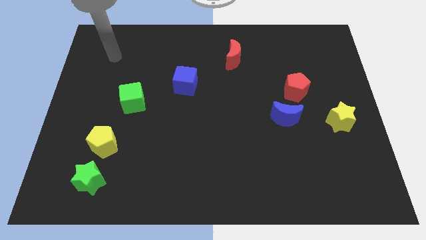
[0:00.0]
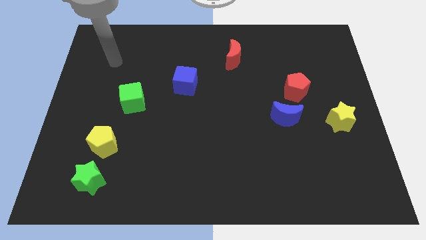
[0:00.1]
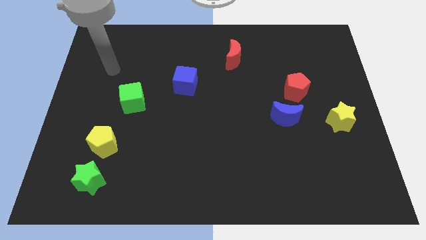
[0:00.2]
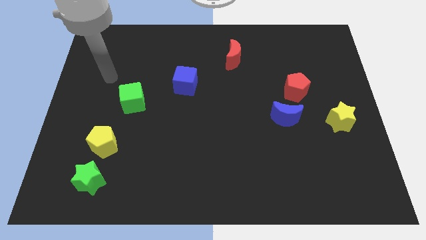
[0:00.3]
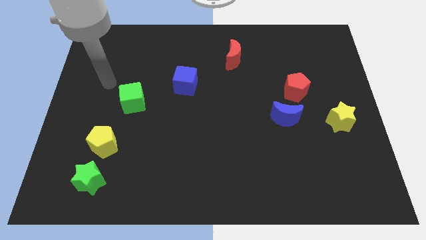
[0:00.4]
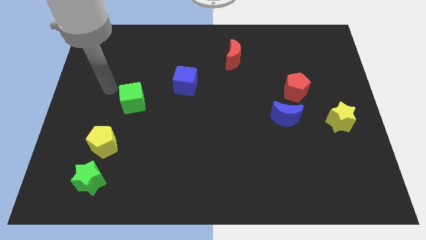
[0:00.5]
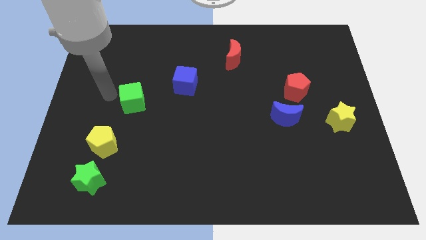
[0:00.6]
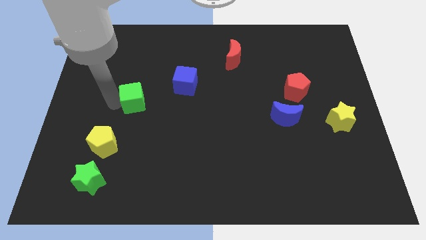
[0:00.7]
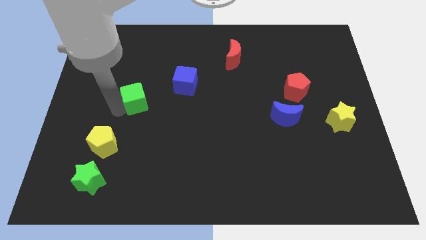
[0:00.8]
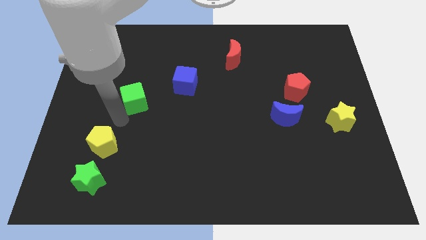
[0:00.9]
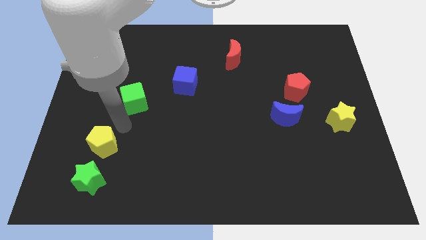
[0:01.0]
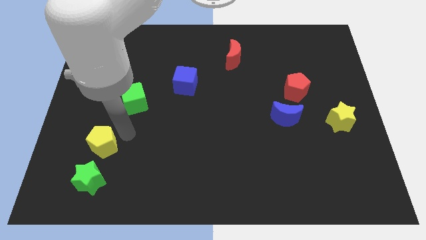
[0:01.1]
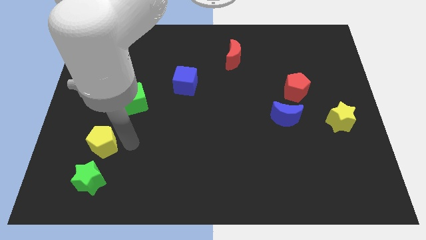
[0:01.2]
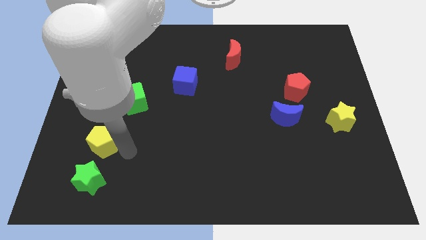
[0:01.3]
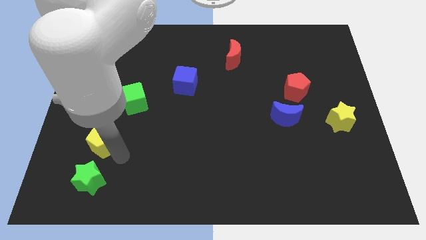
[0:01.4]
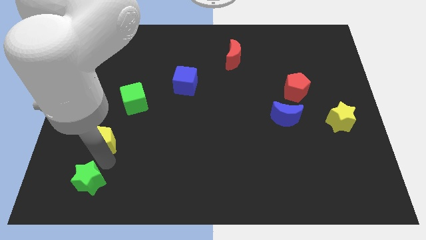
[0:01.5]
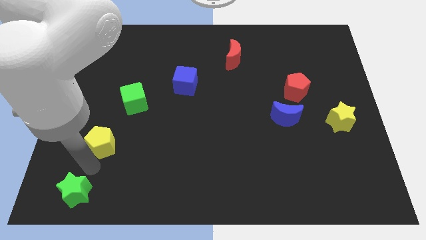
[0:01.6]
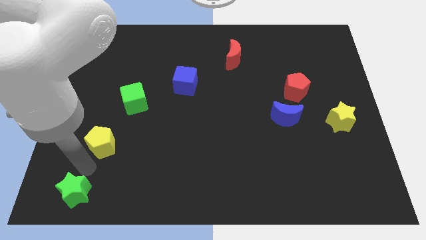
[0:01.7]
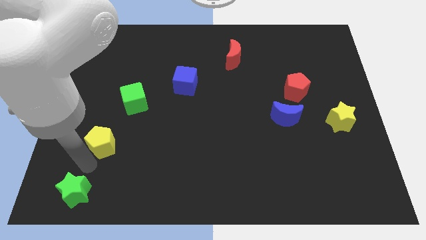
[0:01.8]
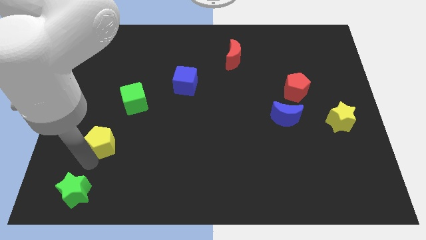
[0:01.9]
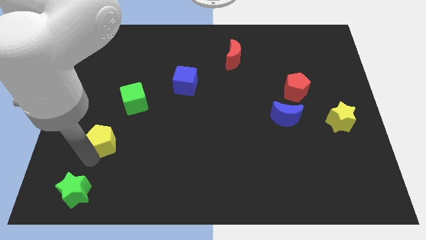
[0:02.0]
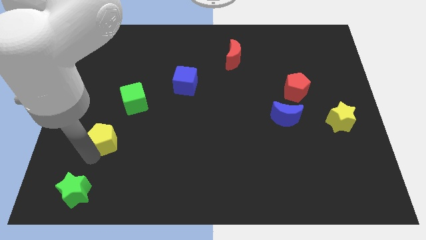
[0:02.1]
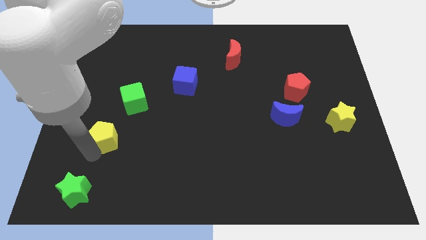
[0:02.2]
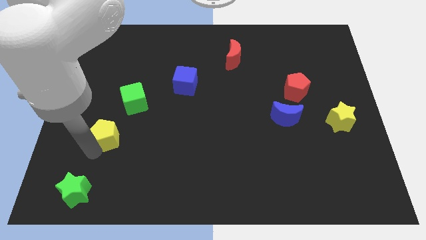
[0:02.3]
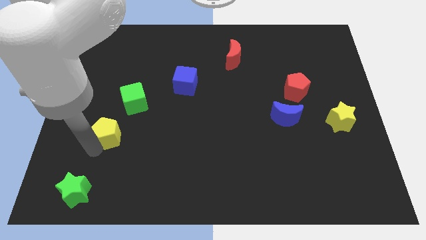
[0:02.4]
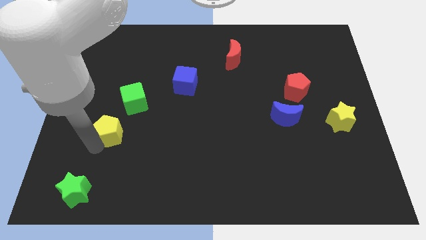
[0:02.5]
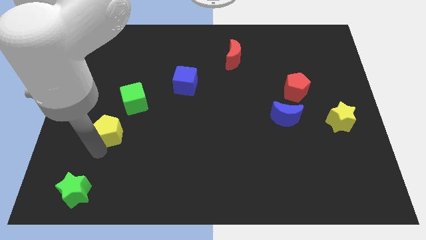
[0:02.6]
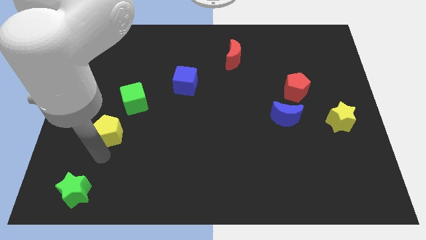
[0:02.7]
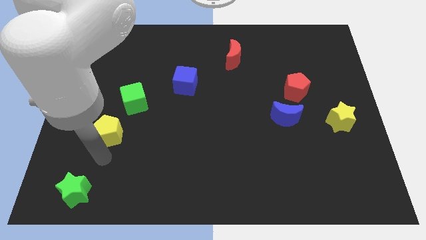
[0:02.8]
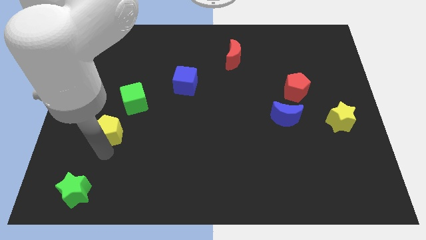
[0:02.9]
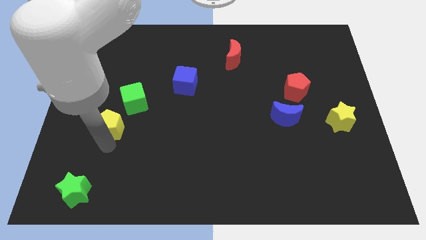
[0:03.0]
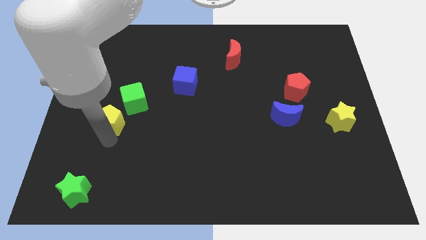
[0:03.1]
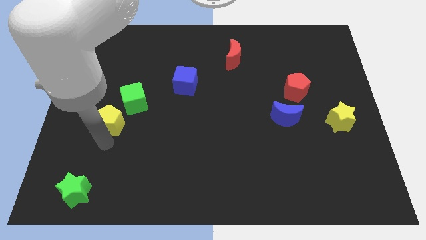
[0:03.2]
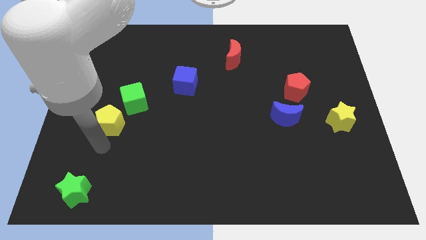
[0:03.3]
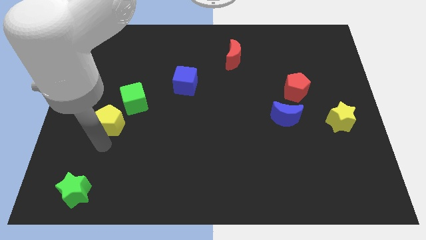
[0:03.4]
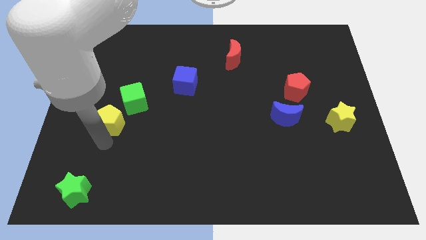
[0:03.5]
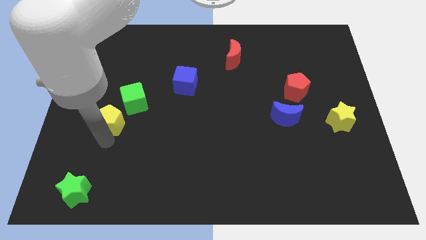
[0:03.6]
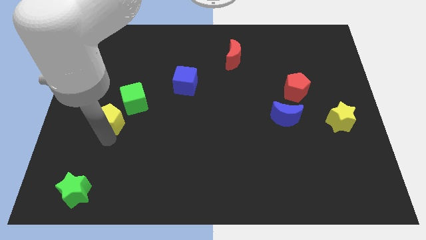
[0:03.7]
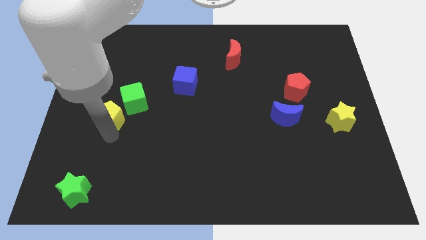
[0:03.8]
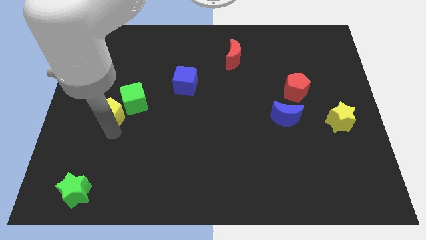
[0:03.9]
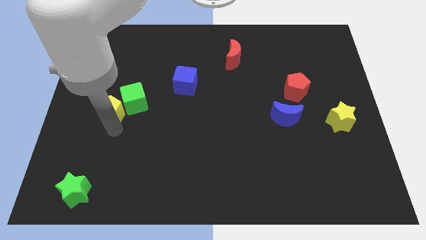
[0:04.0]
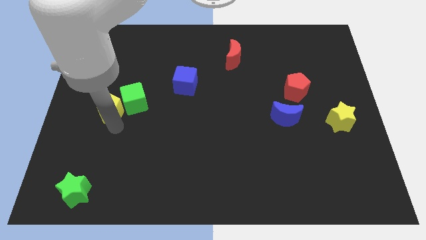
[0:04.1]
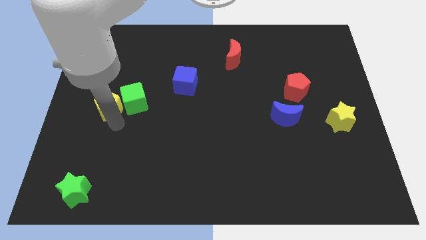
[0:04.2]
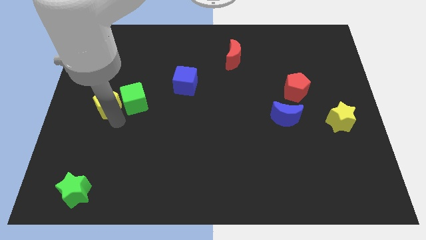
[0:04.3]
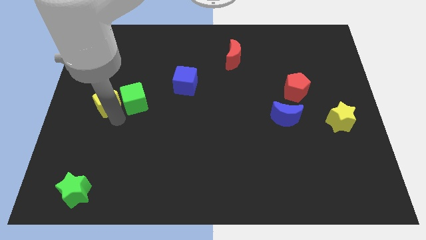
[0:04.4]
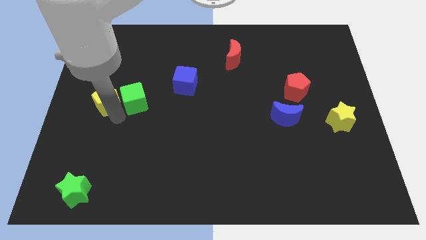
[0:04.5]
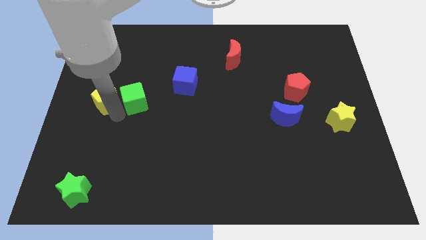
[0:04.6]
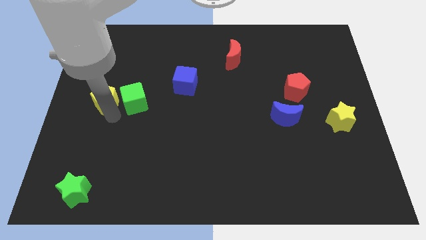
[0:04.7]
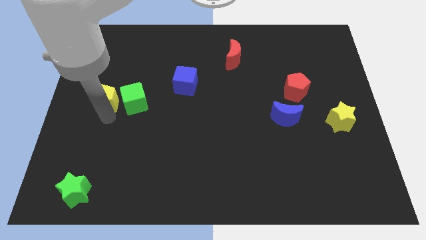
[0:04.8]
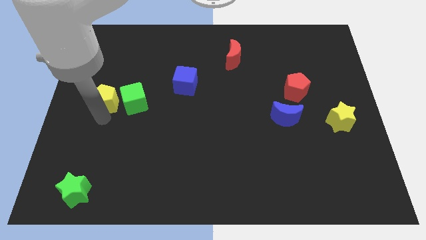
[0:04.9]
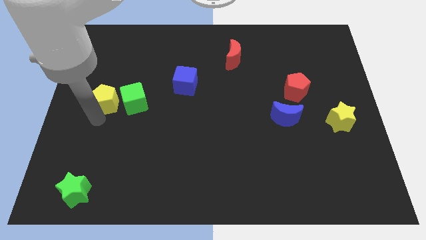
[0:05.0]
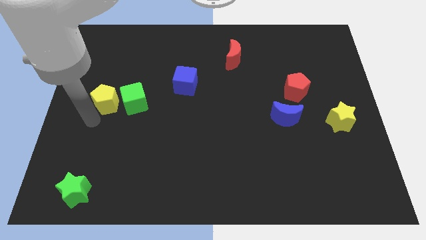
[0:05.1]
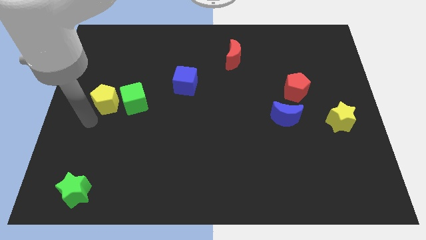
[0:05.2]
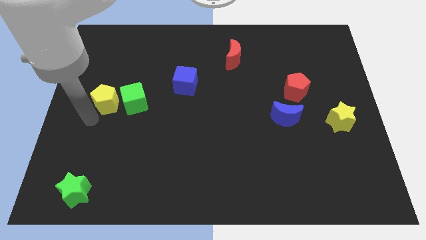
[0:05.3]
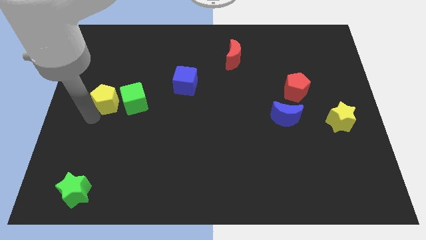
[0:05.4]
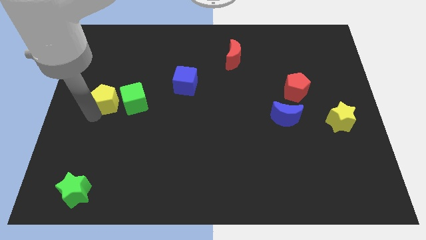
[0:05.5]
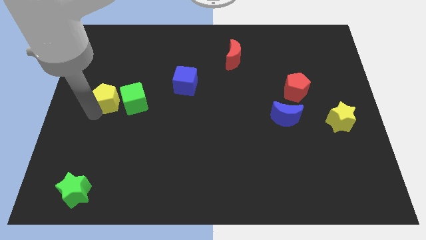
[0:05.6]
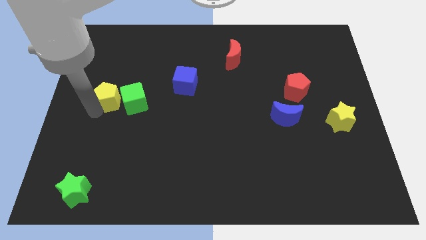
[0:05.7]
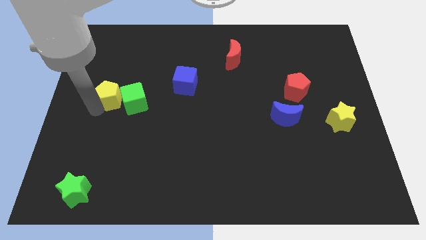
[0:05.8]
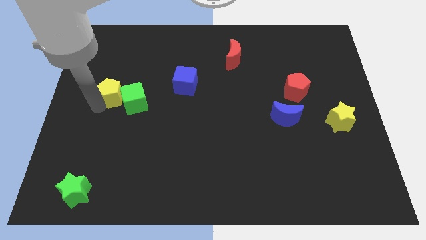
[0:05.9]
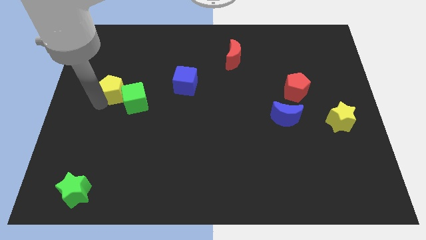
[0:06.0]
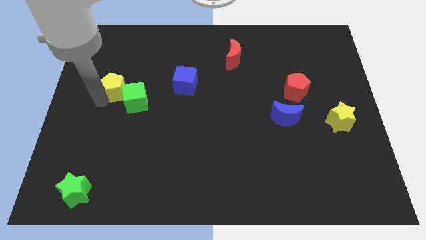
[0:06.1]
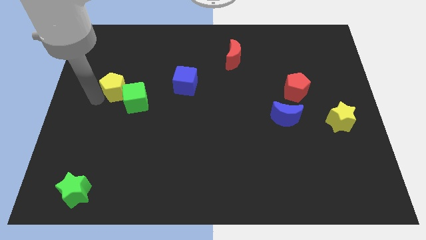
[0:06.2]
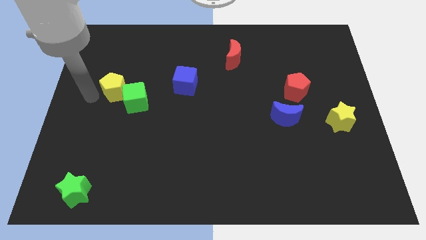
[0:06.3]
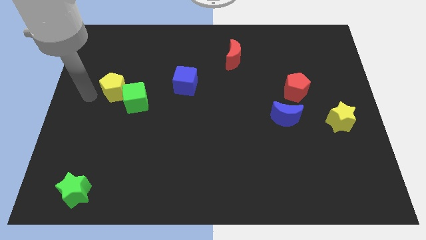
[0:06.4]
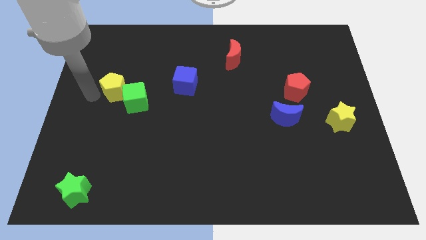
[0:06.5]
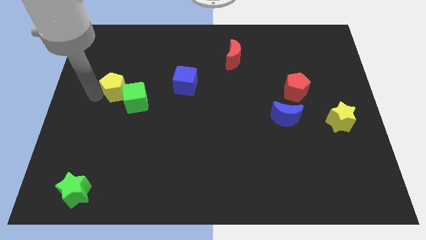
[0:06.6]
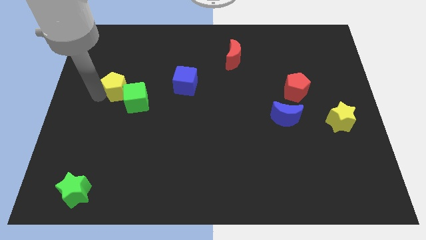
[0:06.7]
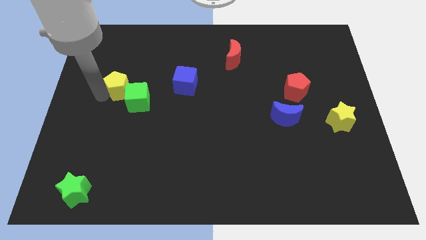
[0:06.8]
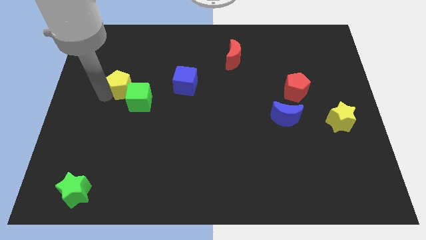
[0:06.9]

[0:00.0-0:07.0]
slide the yellow pentagon to the left of the blue cube
